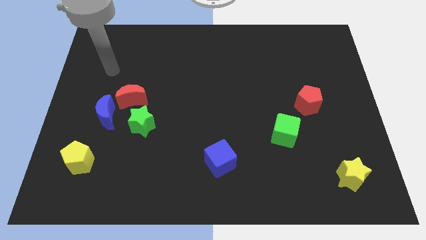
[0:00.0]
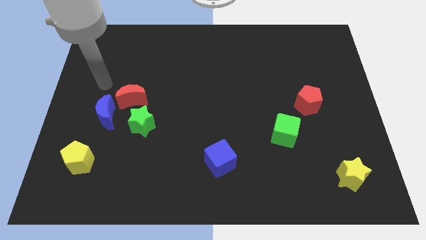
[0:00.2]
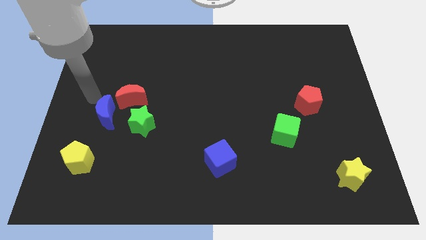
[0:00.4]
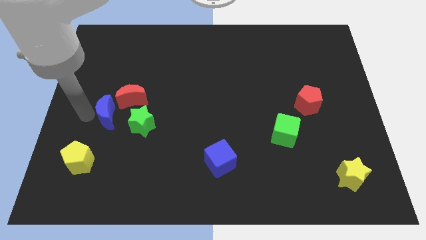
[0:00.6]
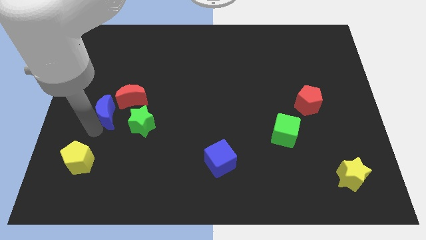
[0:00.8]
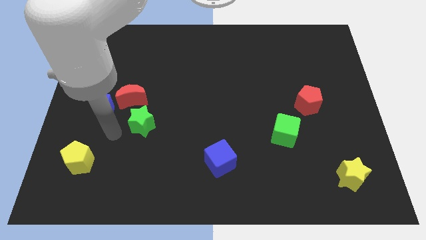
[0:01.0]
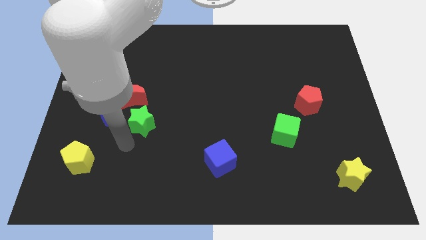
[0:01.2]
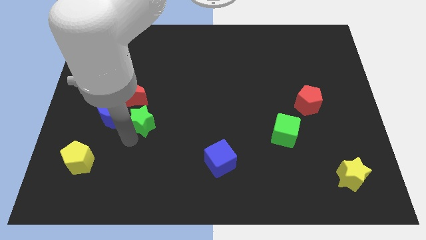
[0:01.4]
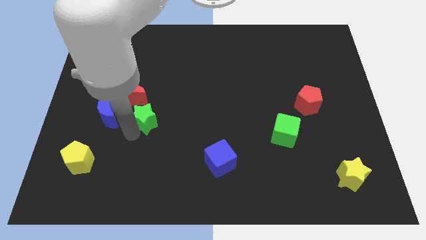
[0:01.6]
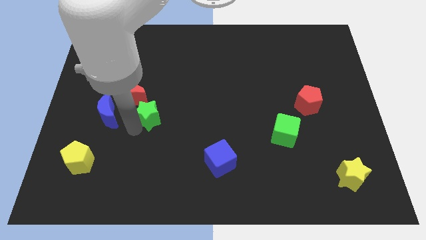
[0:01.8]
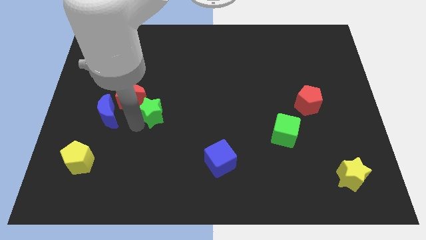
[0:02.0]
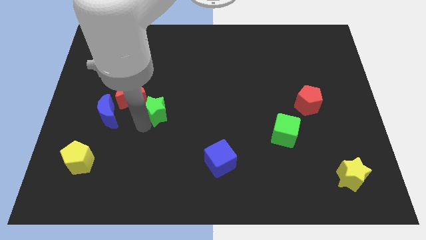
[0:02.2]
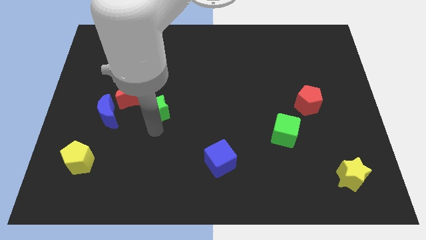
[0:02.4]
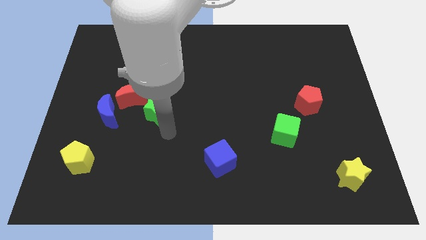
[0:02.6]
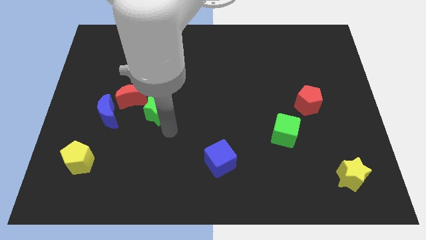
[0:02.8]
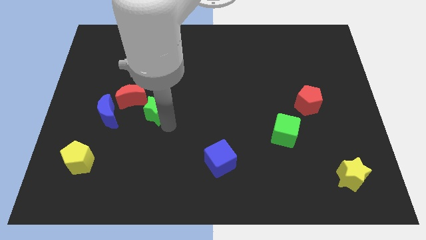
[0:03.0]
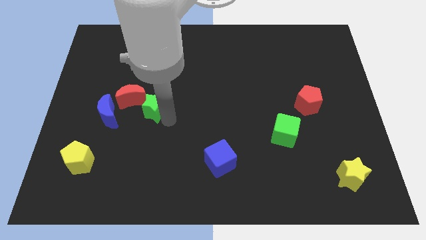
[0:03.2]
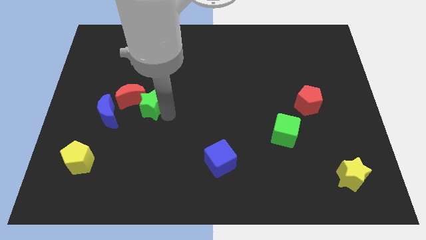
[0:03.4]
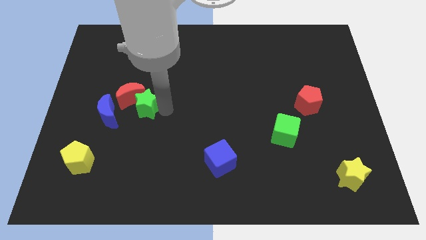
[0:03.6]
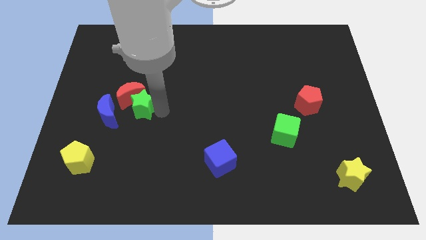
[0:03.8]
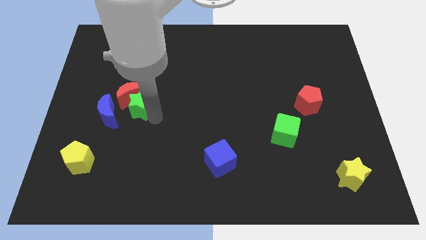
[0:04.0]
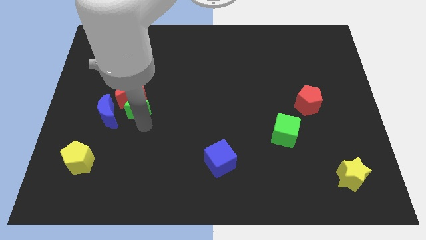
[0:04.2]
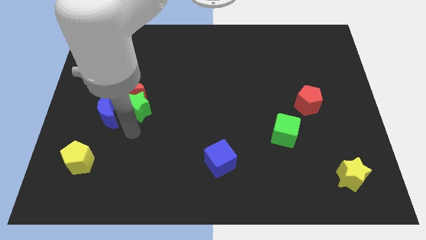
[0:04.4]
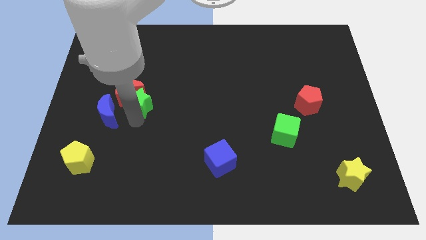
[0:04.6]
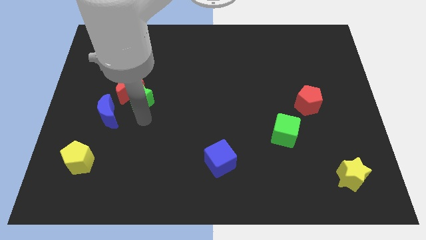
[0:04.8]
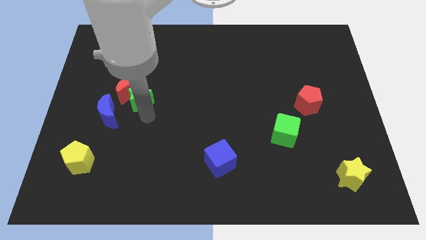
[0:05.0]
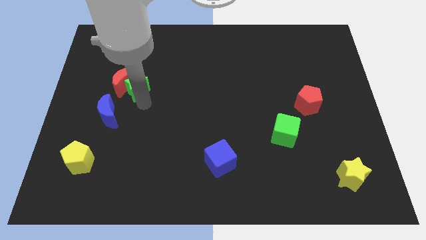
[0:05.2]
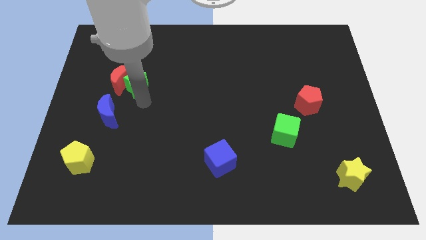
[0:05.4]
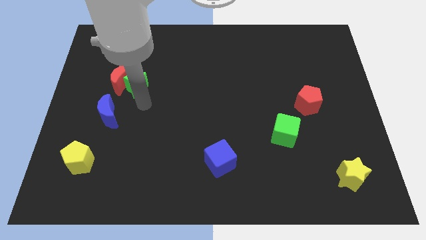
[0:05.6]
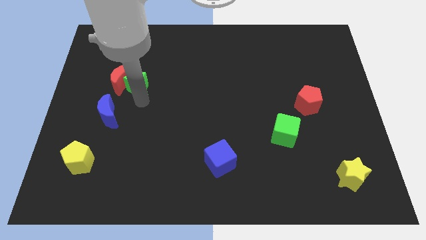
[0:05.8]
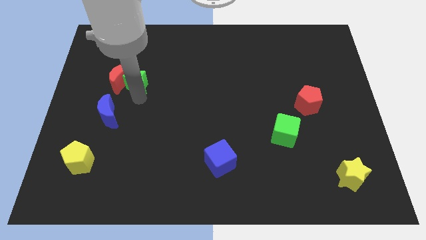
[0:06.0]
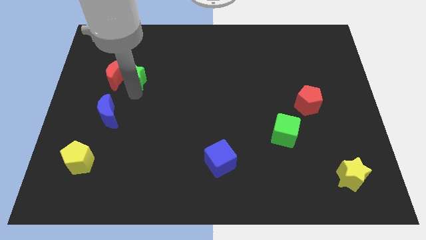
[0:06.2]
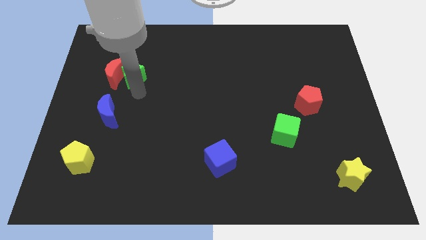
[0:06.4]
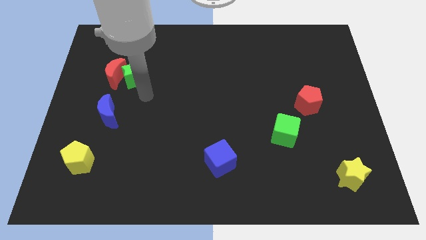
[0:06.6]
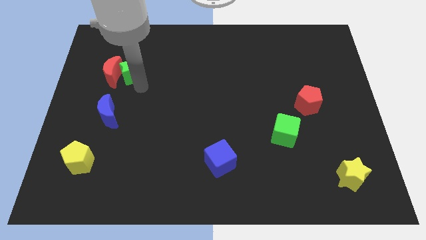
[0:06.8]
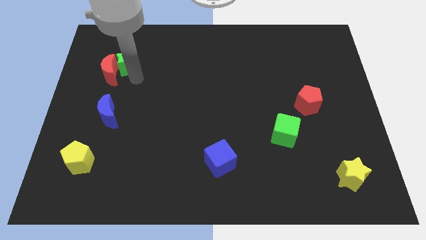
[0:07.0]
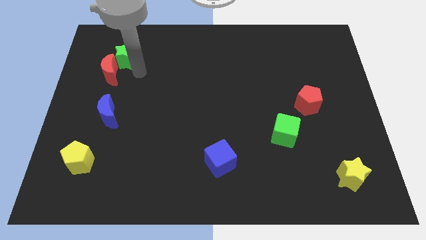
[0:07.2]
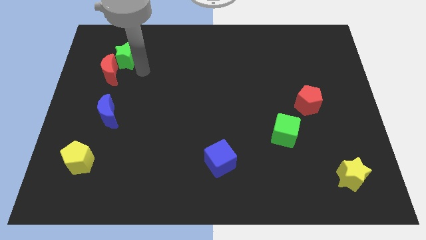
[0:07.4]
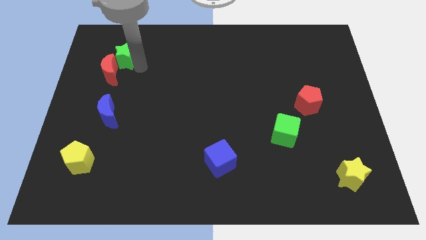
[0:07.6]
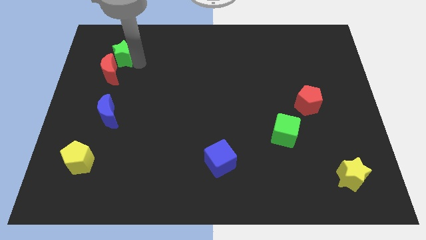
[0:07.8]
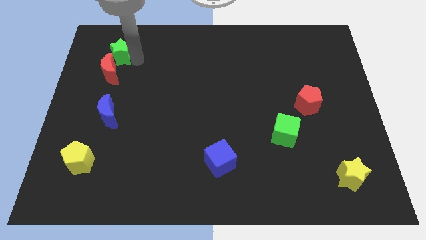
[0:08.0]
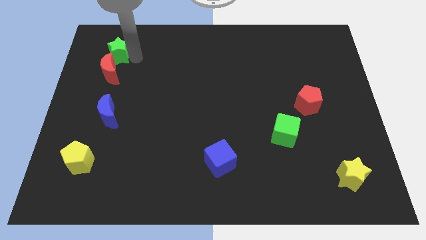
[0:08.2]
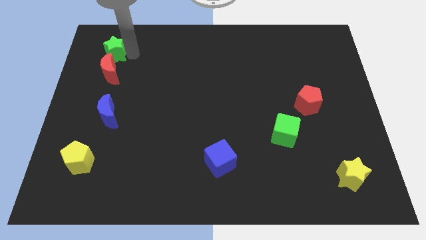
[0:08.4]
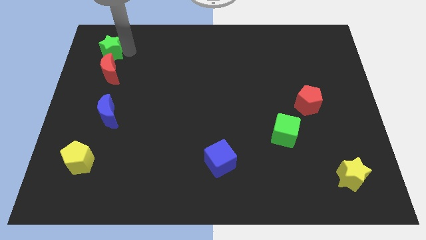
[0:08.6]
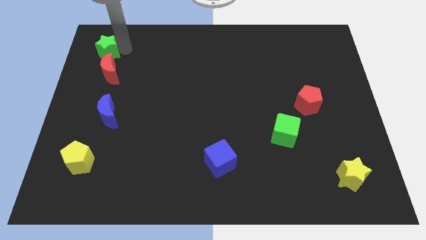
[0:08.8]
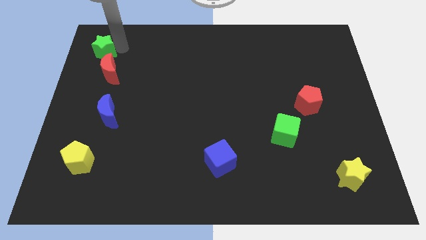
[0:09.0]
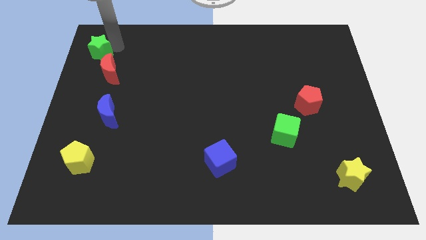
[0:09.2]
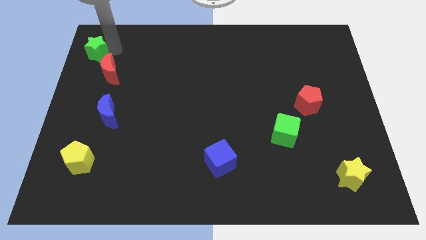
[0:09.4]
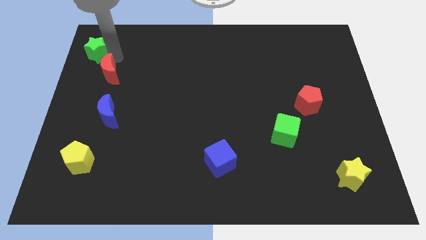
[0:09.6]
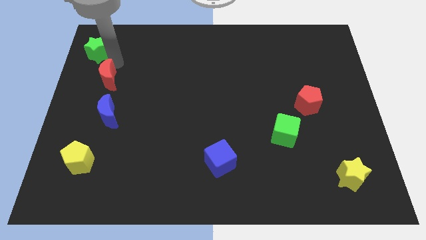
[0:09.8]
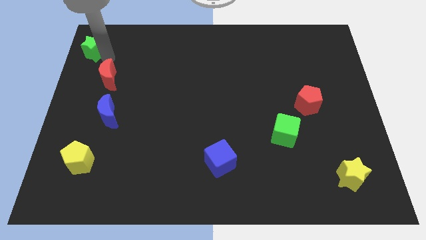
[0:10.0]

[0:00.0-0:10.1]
push the green star to the top left corner

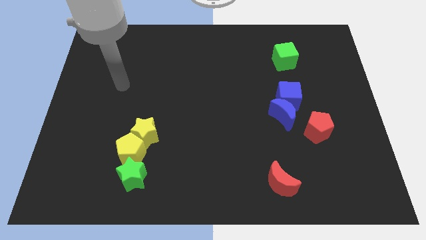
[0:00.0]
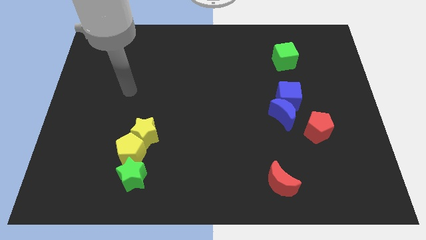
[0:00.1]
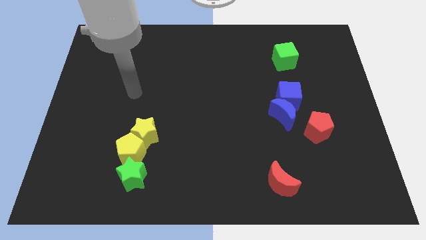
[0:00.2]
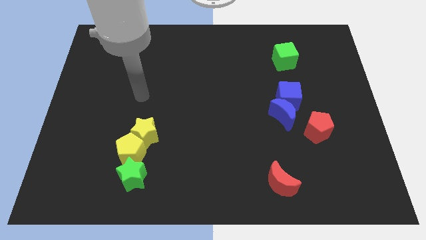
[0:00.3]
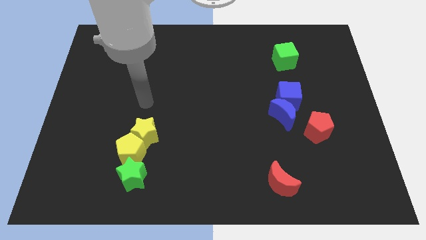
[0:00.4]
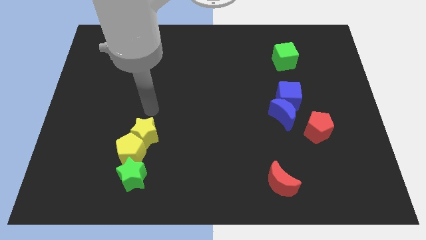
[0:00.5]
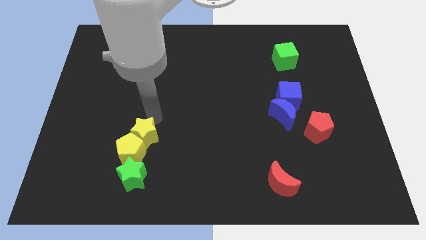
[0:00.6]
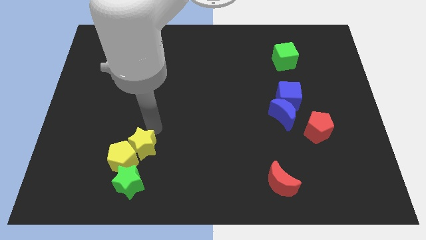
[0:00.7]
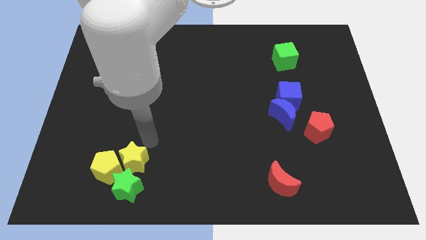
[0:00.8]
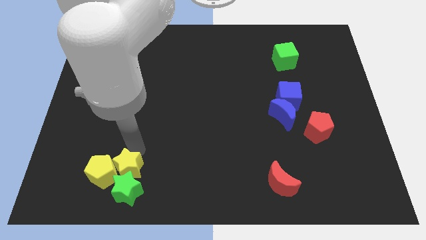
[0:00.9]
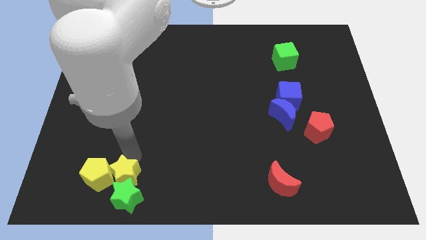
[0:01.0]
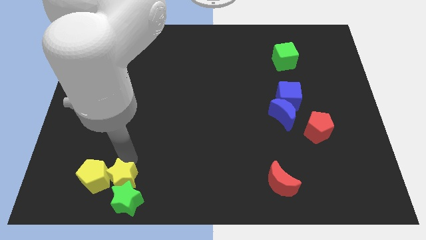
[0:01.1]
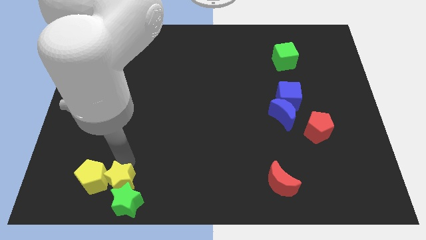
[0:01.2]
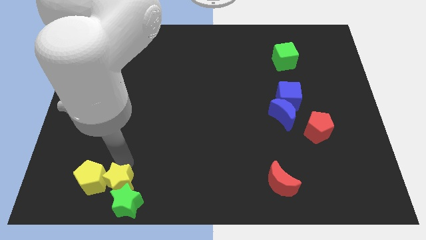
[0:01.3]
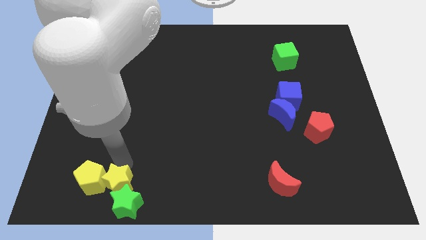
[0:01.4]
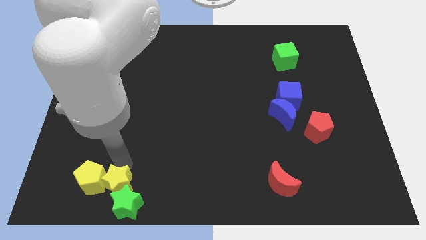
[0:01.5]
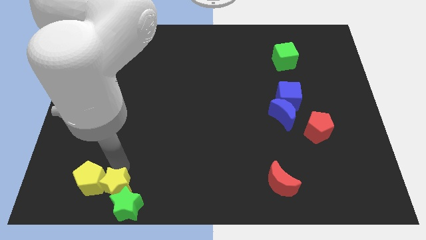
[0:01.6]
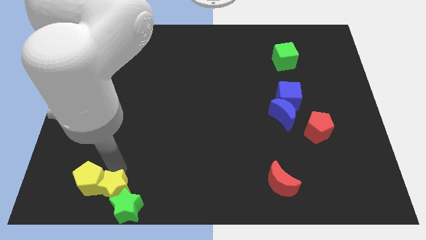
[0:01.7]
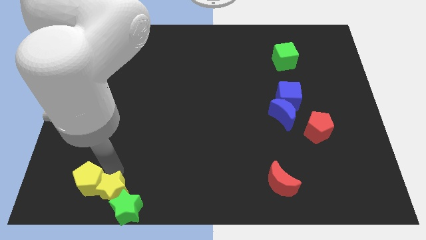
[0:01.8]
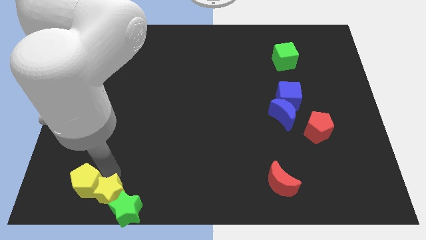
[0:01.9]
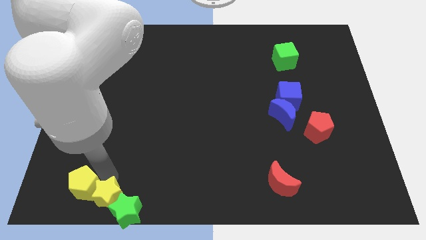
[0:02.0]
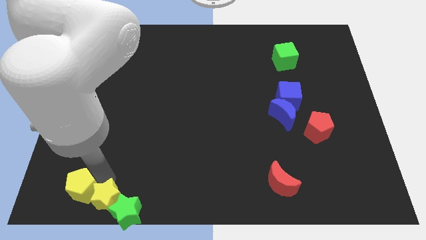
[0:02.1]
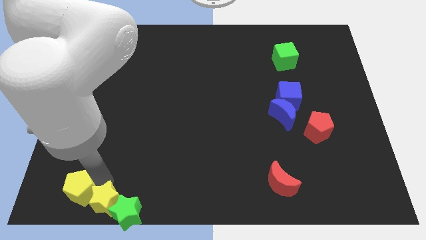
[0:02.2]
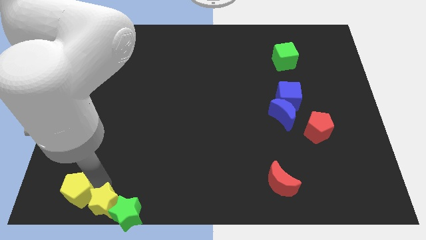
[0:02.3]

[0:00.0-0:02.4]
push the yellow pentagon to the lower left corner
